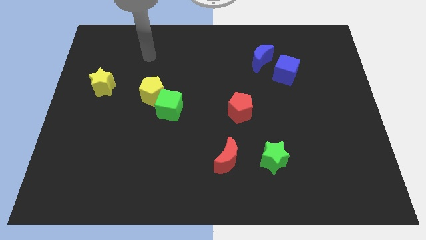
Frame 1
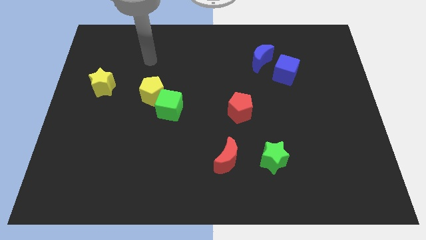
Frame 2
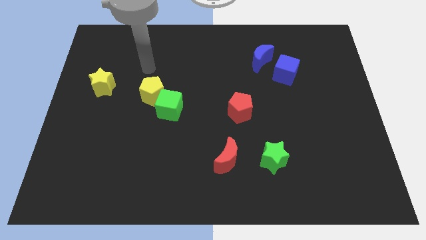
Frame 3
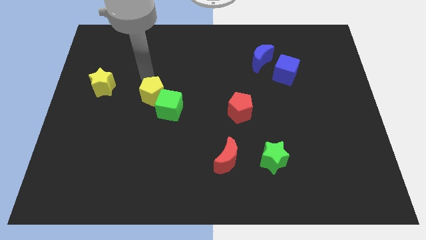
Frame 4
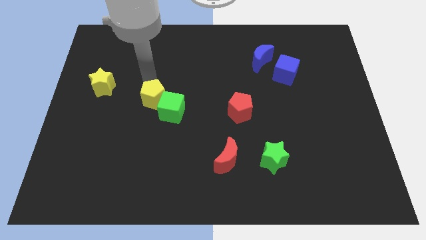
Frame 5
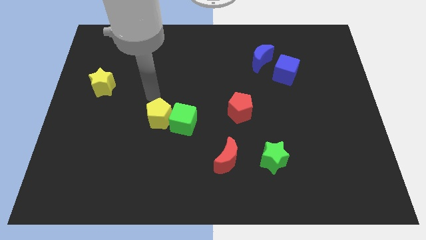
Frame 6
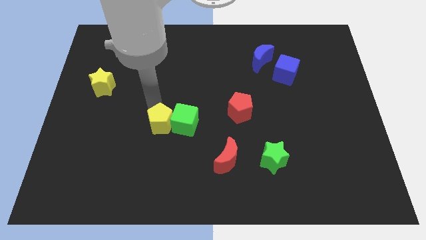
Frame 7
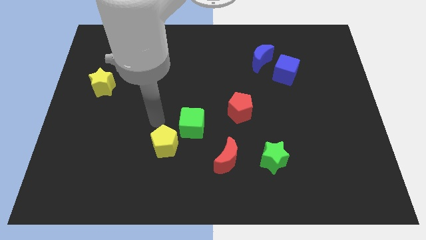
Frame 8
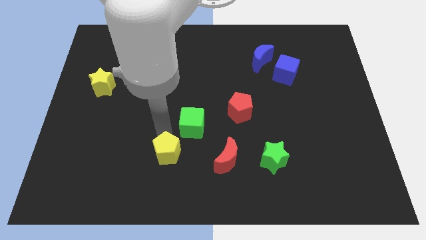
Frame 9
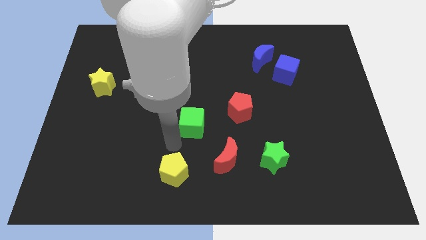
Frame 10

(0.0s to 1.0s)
move the green cube away from the yellow pentagon

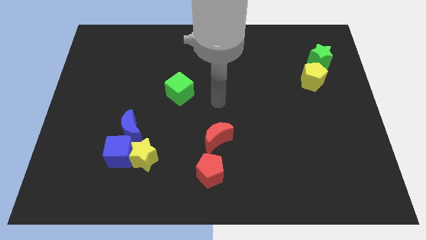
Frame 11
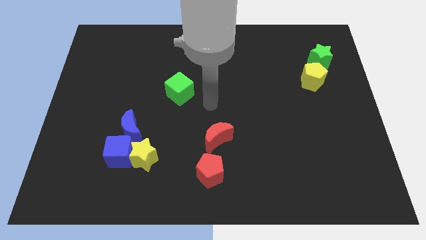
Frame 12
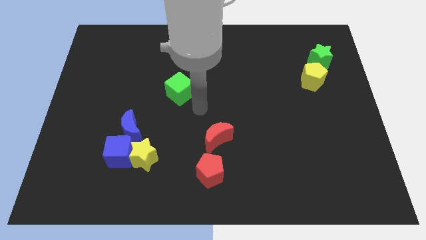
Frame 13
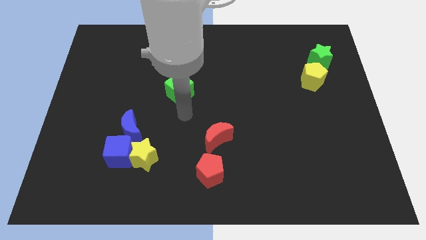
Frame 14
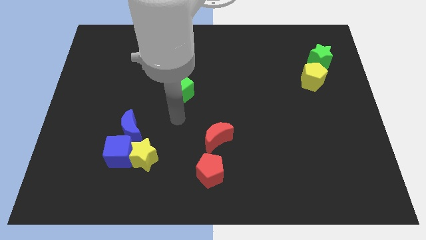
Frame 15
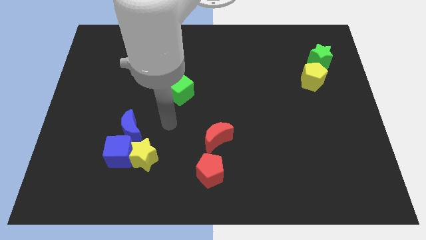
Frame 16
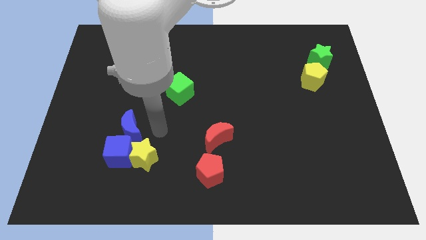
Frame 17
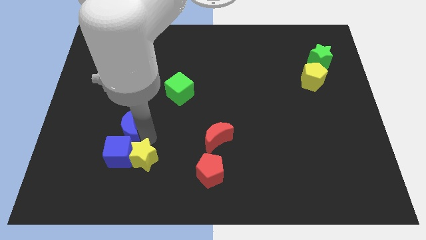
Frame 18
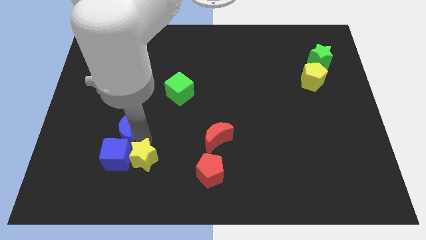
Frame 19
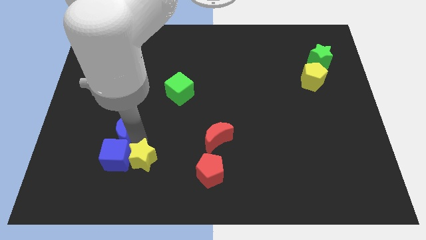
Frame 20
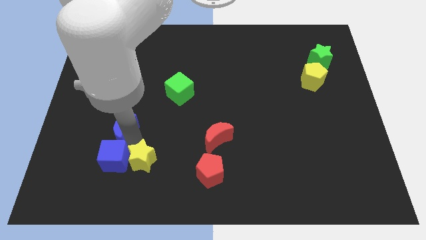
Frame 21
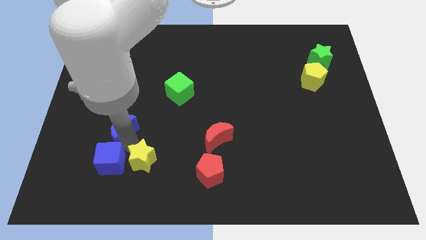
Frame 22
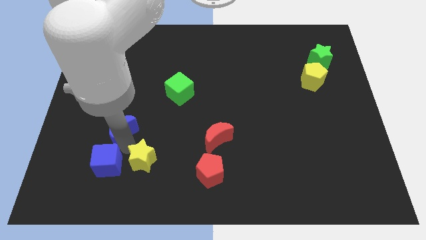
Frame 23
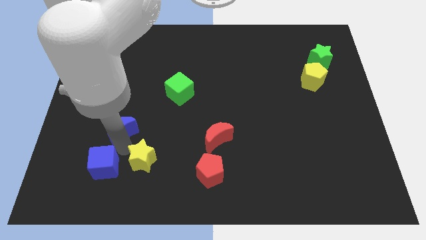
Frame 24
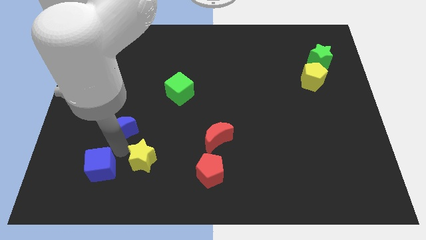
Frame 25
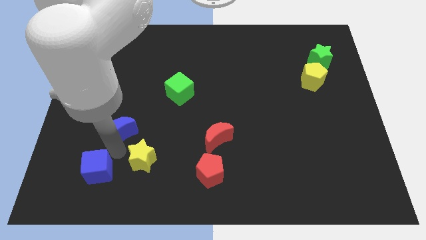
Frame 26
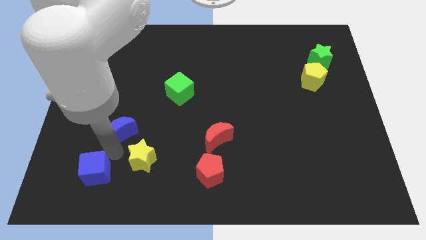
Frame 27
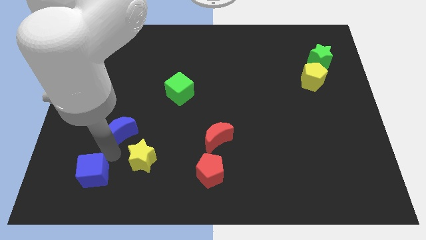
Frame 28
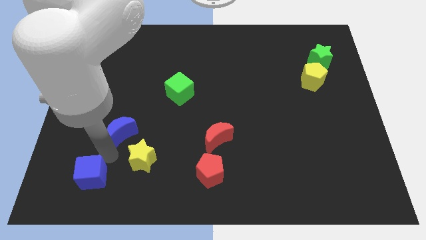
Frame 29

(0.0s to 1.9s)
move the blue cube away from the yellow star and blue moon

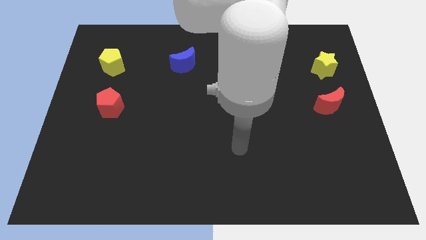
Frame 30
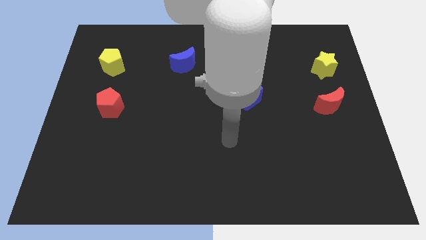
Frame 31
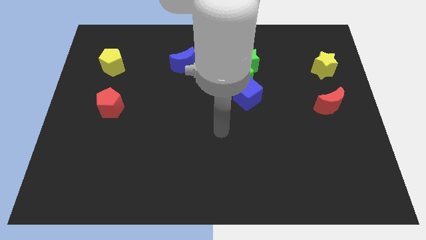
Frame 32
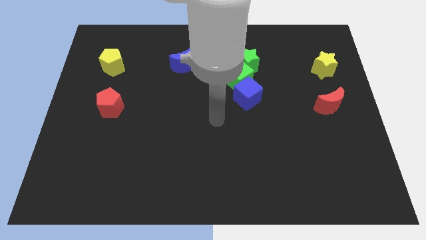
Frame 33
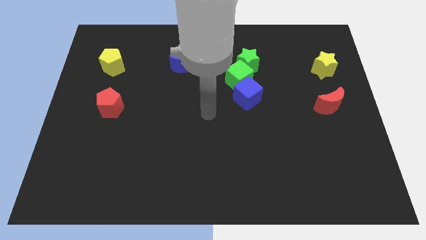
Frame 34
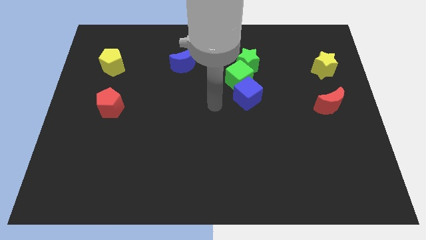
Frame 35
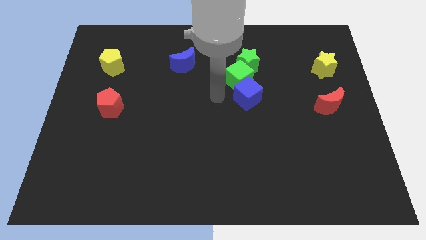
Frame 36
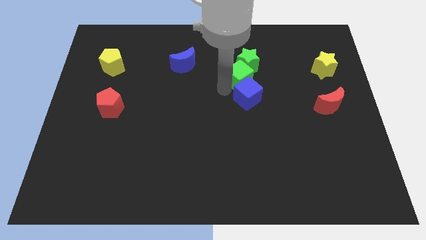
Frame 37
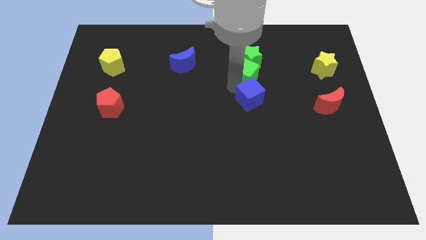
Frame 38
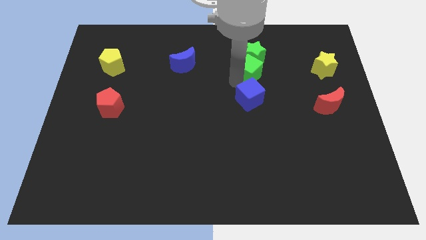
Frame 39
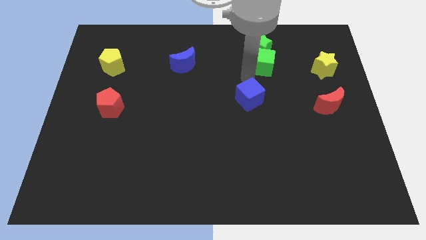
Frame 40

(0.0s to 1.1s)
pull the blue cube apart from the green cube

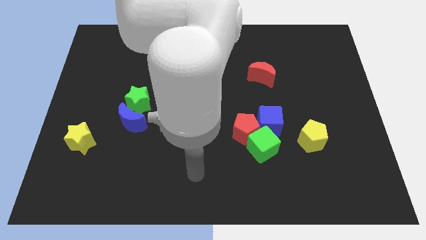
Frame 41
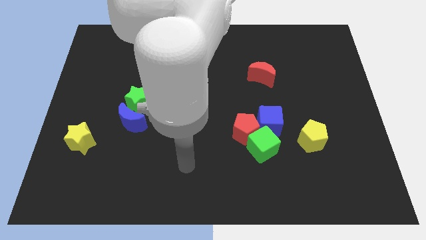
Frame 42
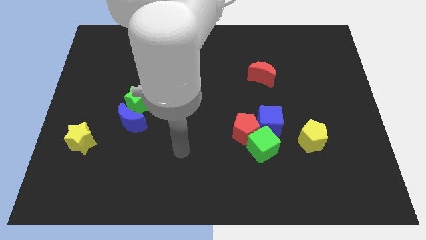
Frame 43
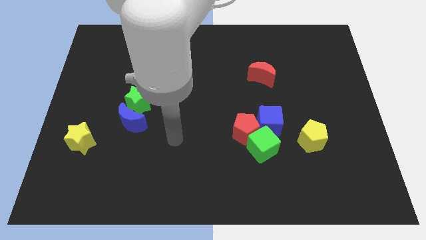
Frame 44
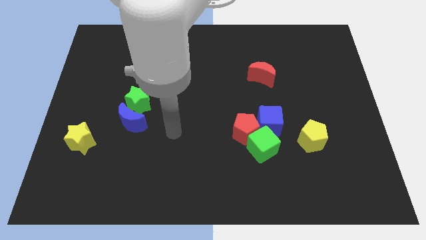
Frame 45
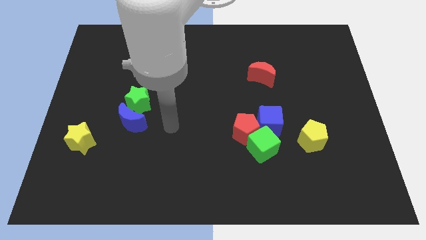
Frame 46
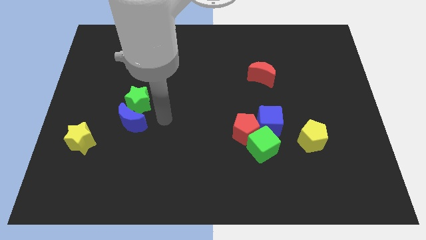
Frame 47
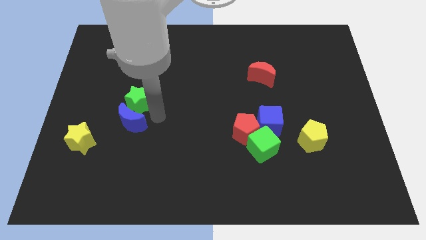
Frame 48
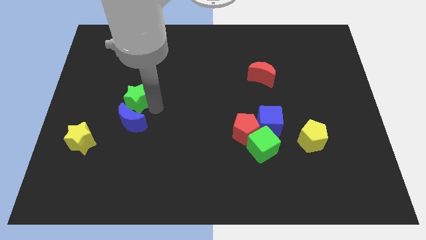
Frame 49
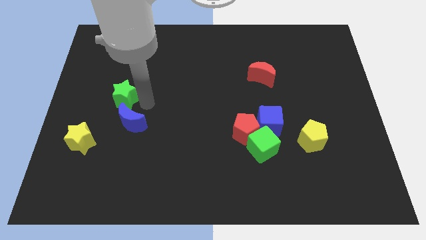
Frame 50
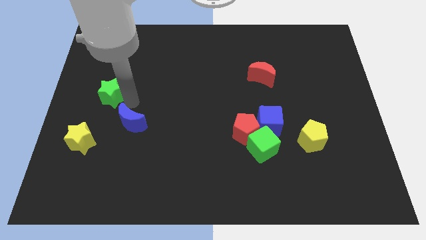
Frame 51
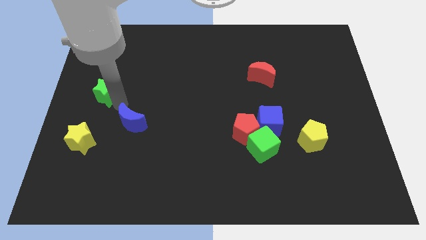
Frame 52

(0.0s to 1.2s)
pull the blue moon apart from the green star

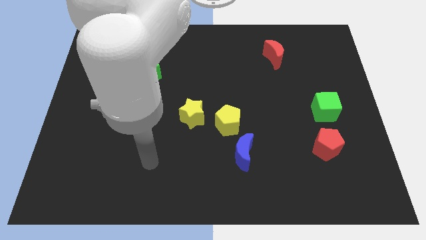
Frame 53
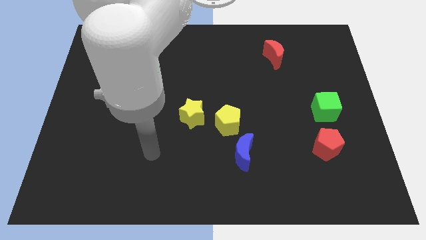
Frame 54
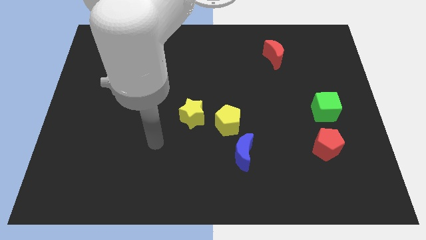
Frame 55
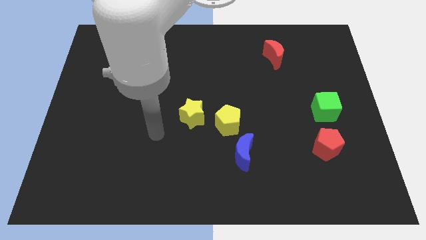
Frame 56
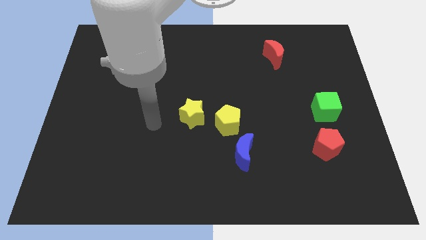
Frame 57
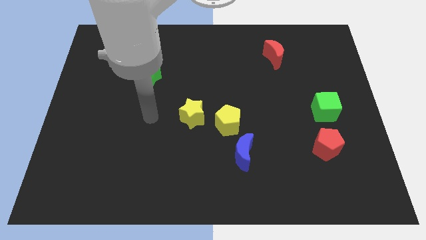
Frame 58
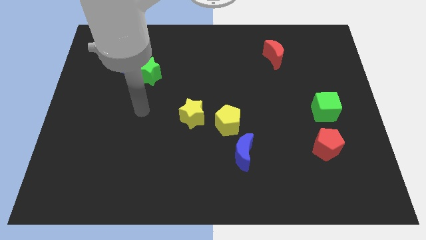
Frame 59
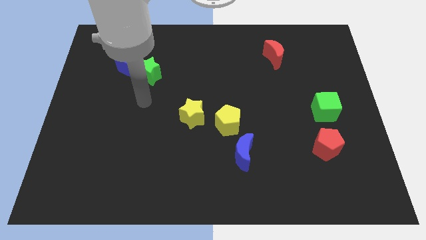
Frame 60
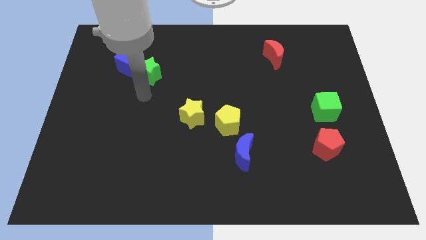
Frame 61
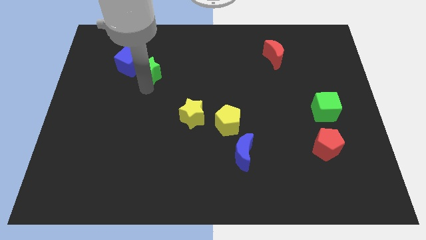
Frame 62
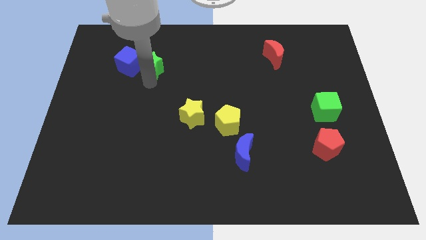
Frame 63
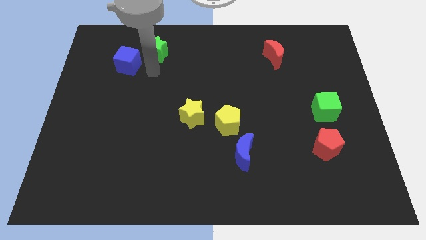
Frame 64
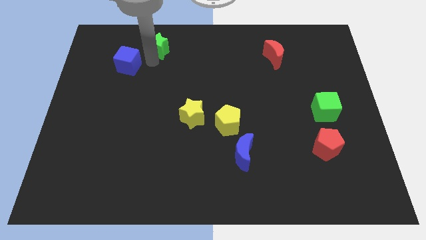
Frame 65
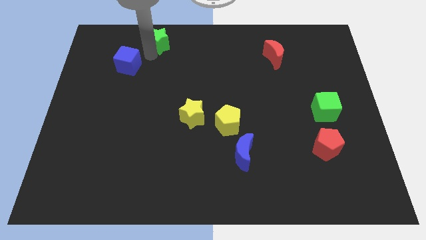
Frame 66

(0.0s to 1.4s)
move the blue cube away from the green star

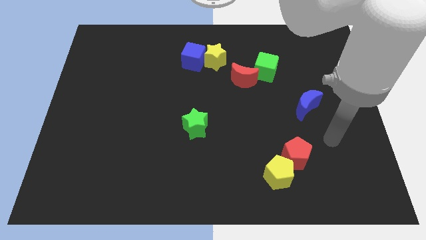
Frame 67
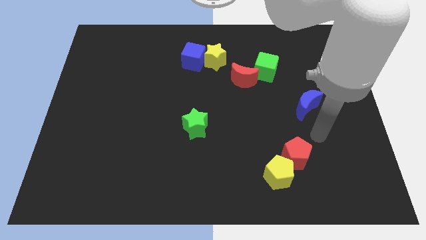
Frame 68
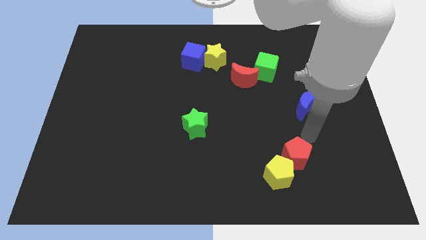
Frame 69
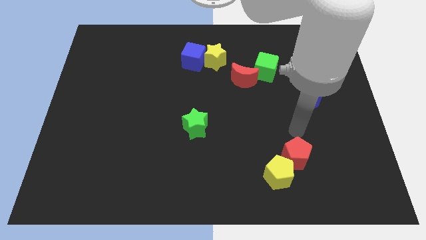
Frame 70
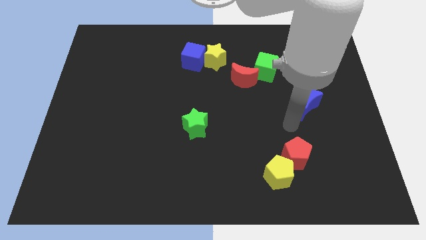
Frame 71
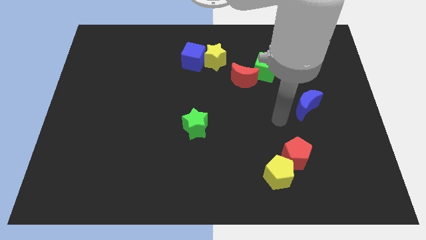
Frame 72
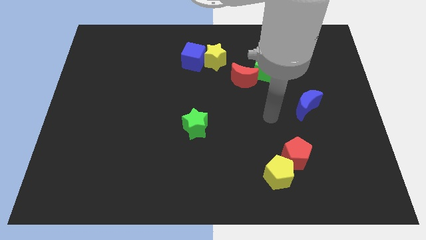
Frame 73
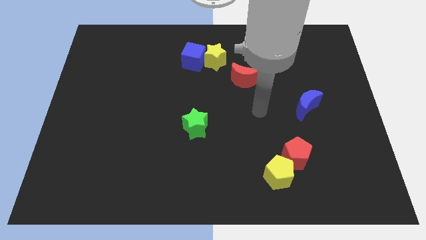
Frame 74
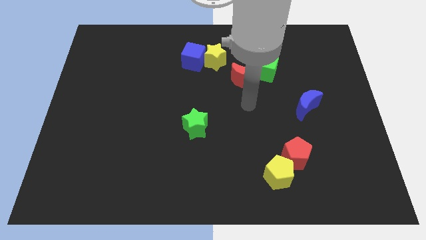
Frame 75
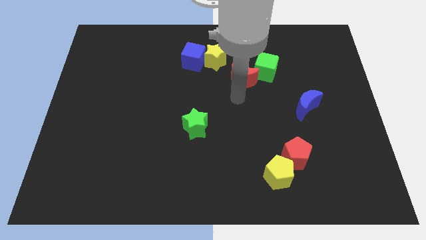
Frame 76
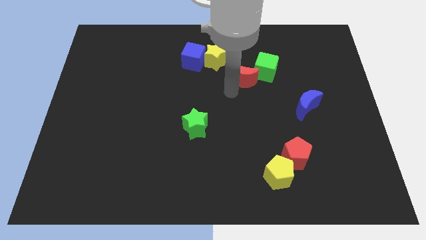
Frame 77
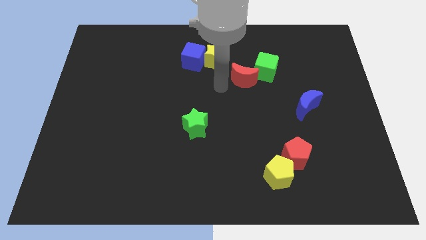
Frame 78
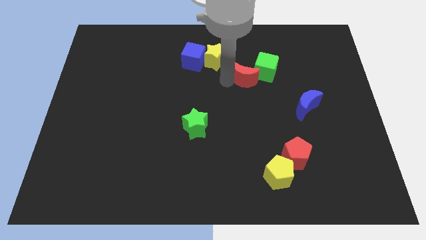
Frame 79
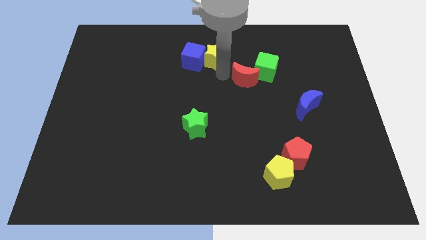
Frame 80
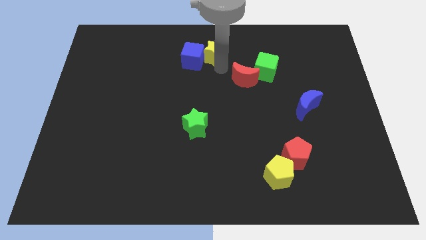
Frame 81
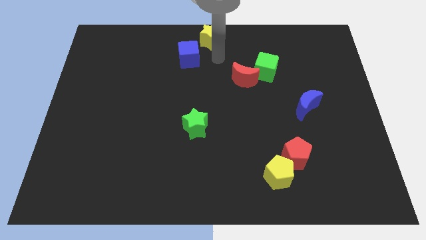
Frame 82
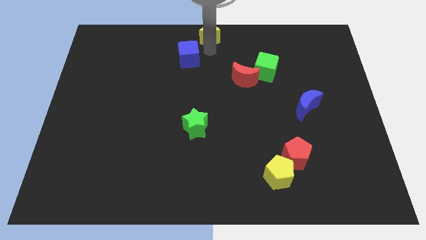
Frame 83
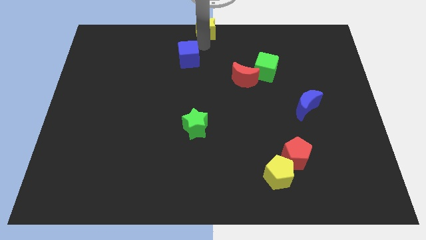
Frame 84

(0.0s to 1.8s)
move the blue cube away from the yellow star

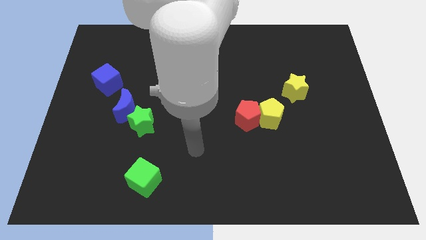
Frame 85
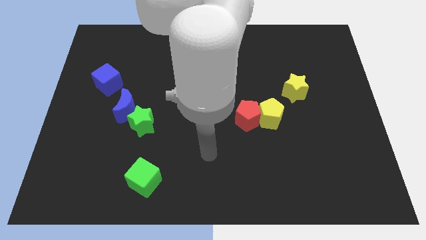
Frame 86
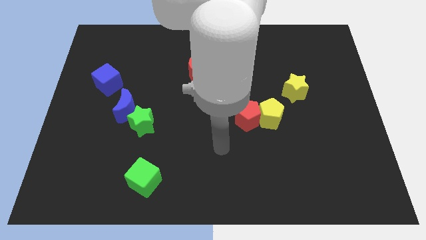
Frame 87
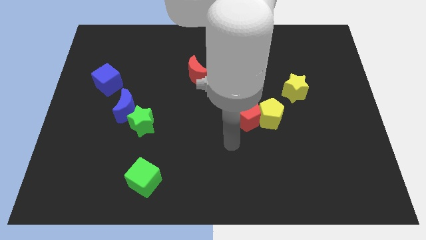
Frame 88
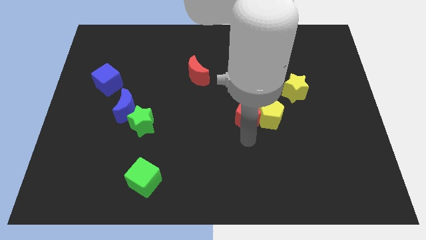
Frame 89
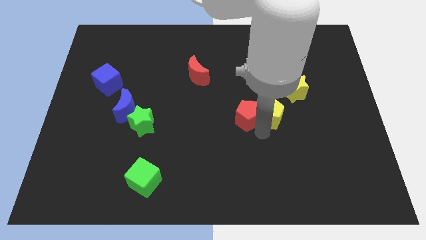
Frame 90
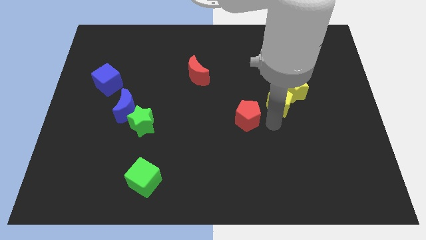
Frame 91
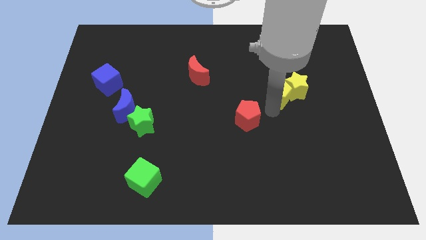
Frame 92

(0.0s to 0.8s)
move the red pentagon away from the yellow pentagon

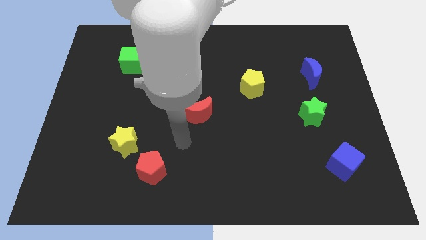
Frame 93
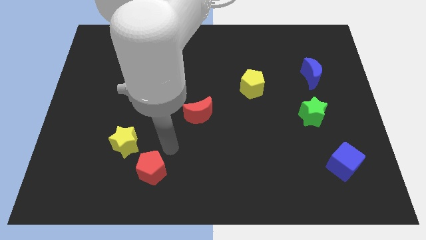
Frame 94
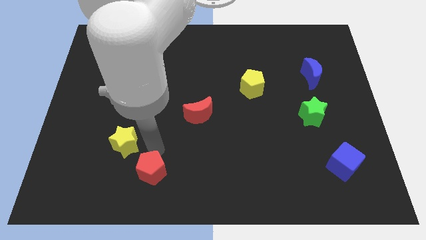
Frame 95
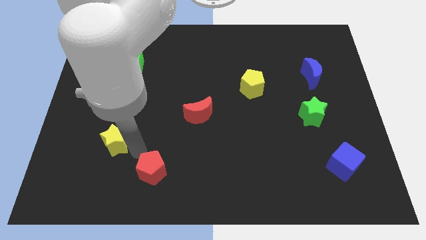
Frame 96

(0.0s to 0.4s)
separate the red pentagon from the yellow star
